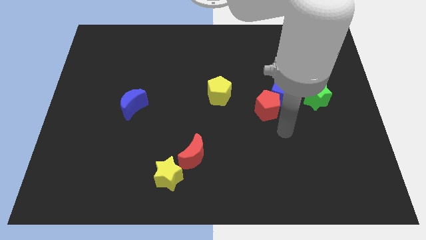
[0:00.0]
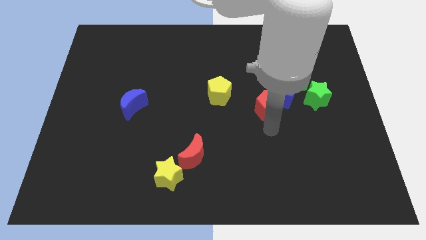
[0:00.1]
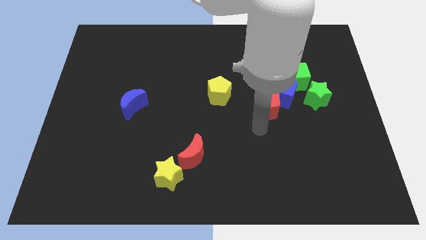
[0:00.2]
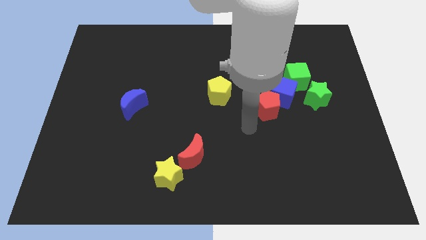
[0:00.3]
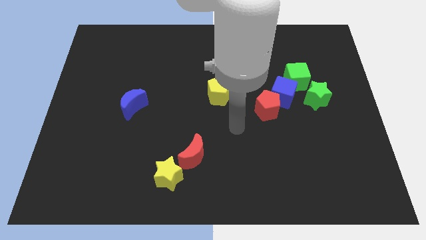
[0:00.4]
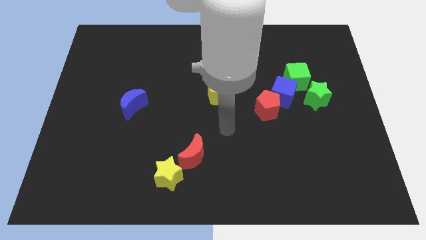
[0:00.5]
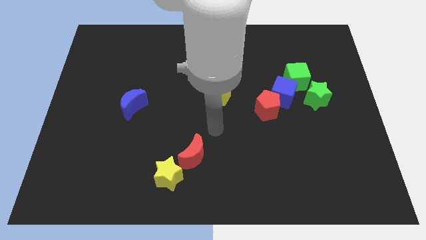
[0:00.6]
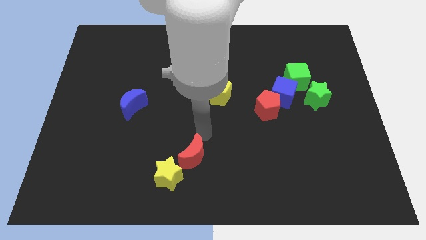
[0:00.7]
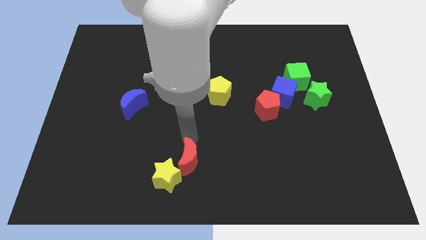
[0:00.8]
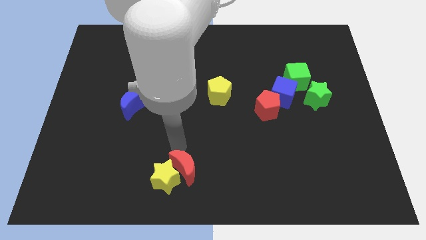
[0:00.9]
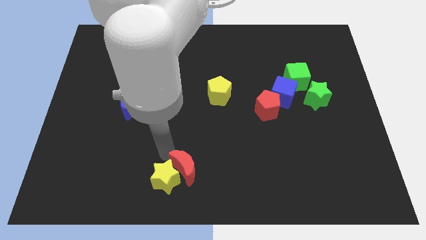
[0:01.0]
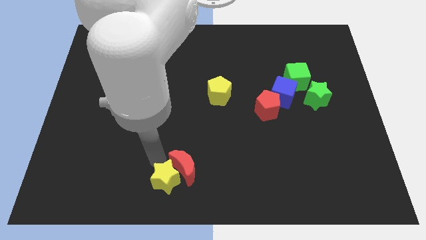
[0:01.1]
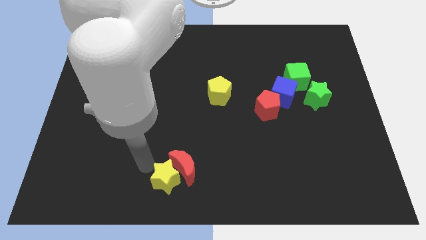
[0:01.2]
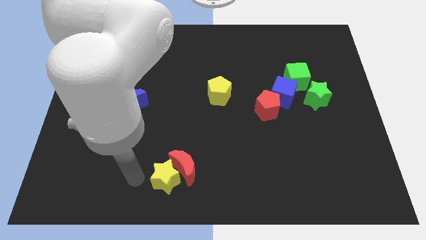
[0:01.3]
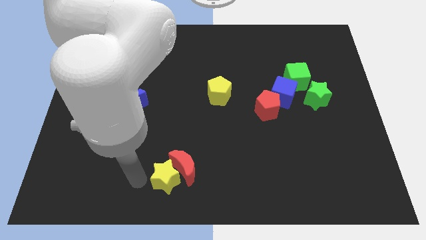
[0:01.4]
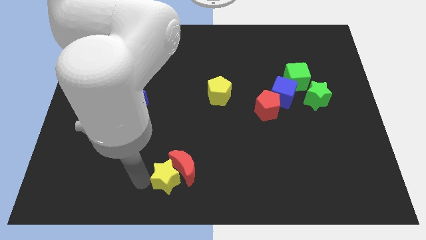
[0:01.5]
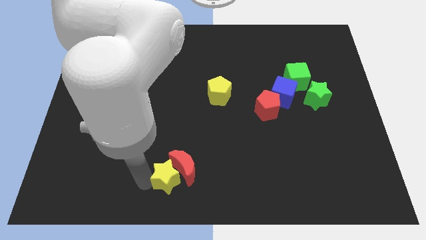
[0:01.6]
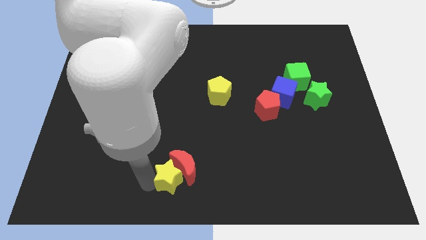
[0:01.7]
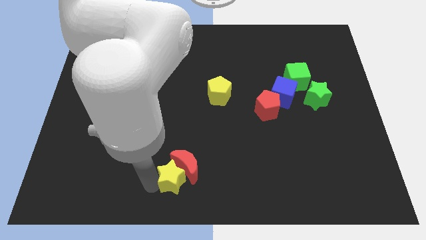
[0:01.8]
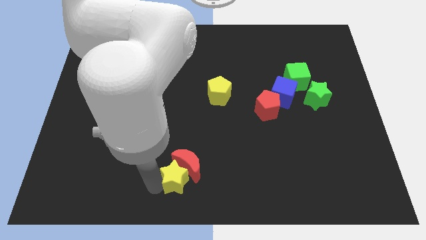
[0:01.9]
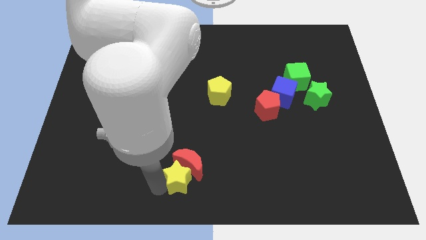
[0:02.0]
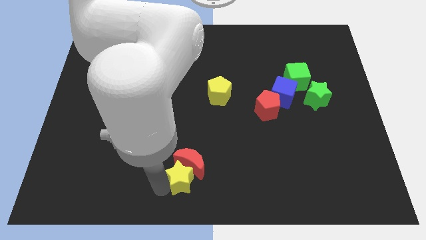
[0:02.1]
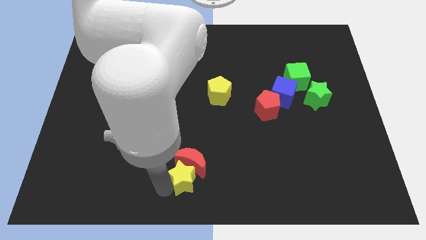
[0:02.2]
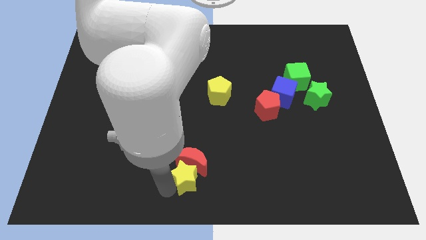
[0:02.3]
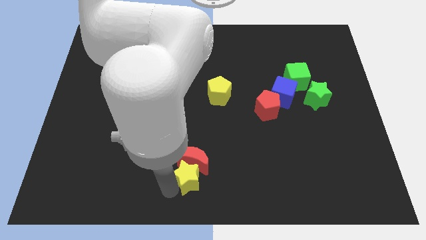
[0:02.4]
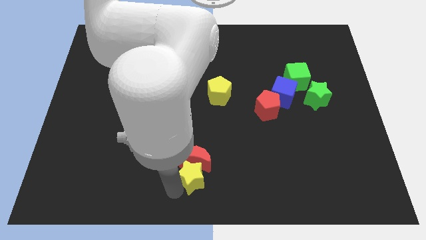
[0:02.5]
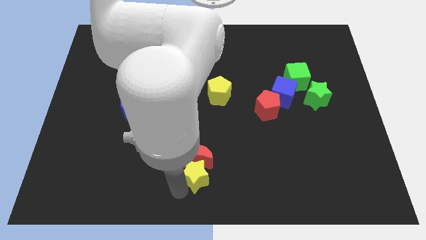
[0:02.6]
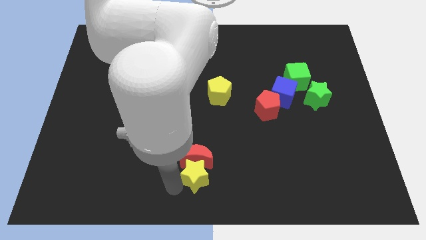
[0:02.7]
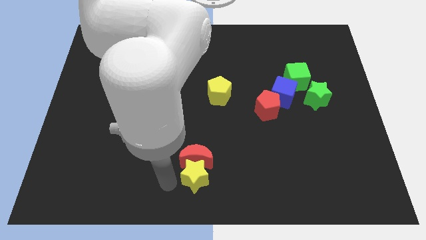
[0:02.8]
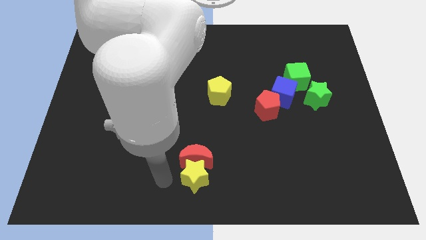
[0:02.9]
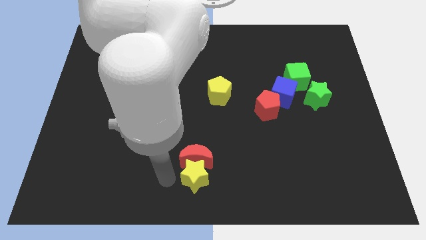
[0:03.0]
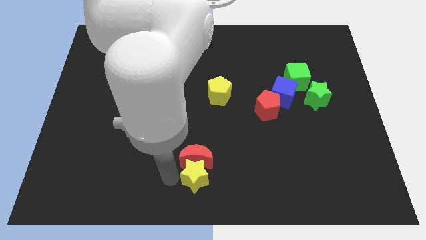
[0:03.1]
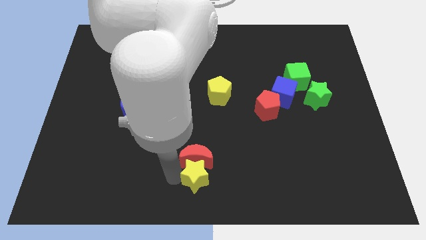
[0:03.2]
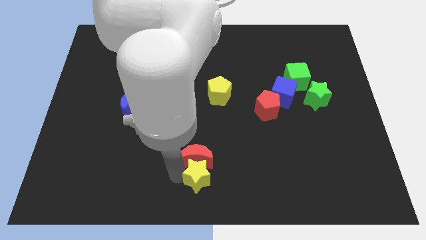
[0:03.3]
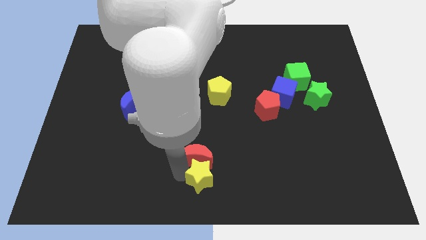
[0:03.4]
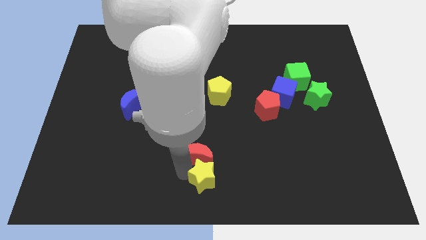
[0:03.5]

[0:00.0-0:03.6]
push the yellow star to the right slightly

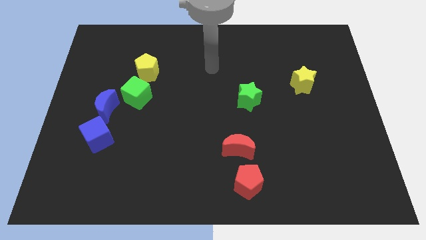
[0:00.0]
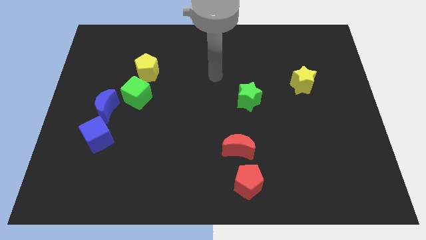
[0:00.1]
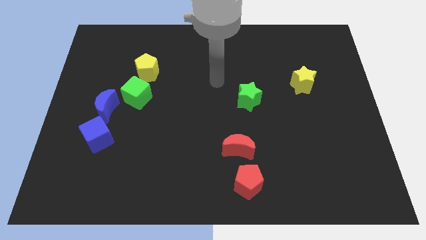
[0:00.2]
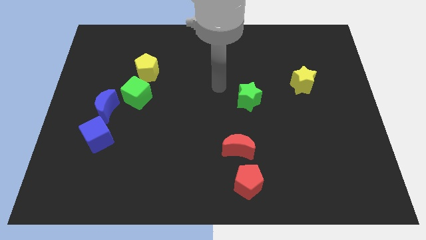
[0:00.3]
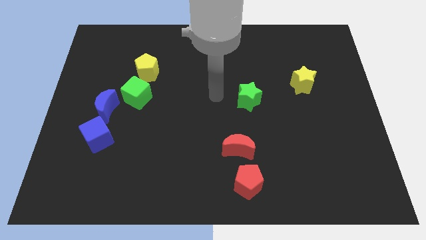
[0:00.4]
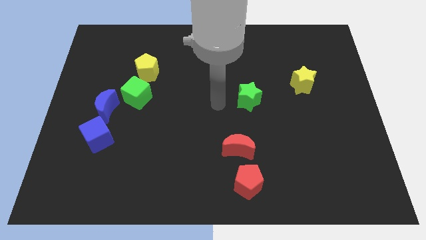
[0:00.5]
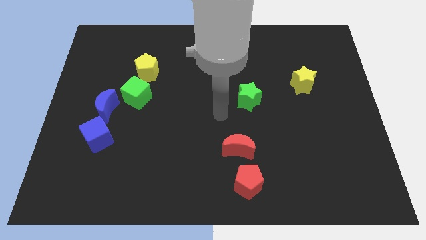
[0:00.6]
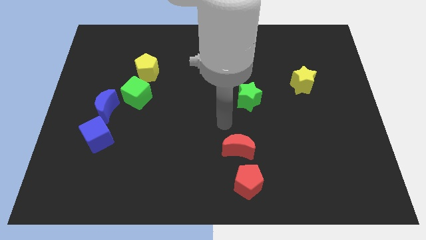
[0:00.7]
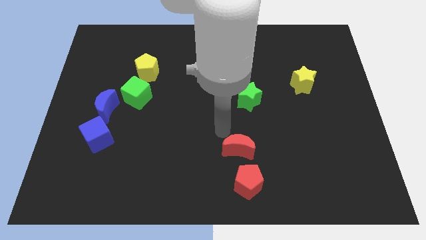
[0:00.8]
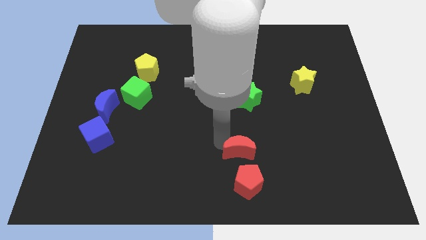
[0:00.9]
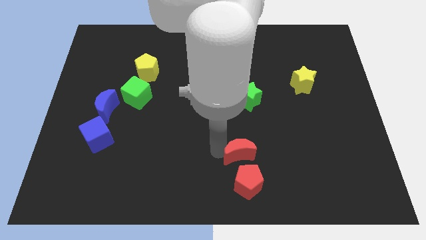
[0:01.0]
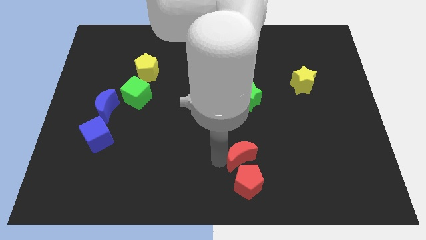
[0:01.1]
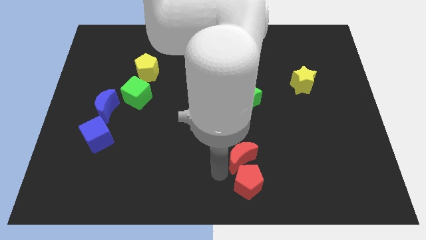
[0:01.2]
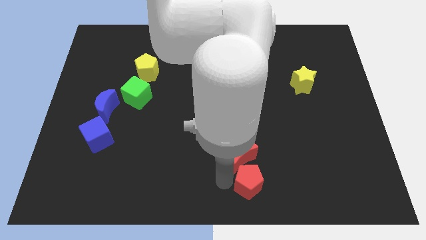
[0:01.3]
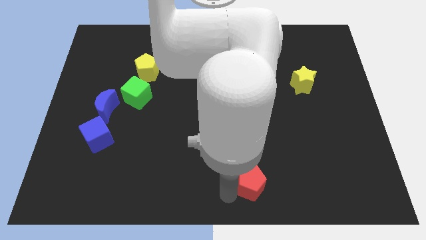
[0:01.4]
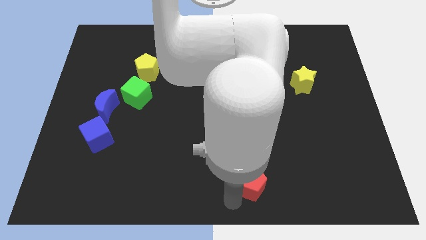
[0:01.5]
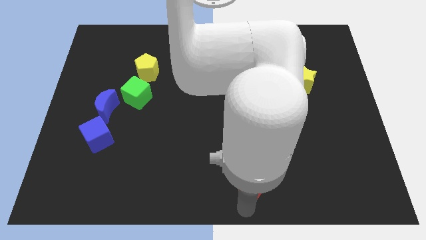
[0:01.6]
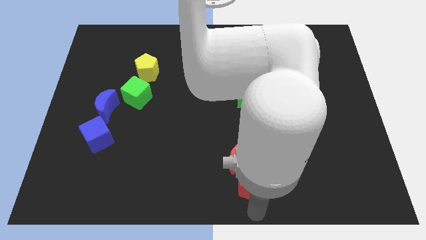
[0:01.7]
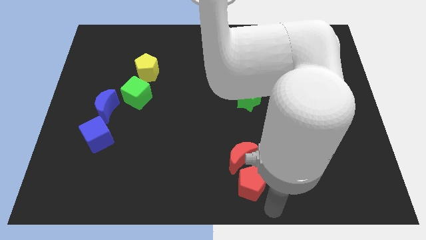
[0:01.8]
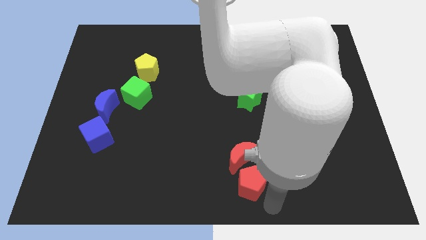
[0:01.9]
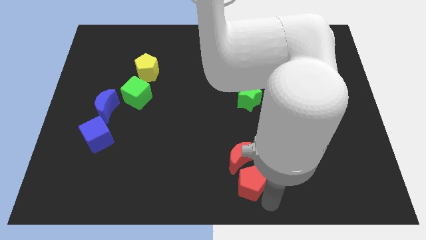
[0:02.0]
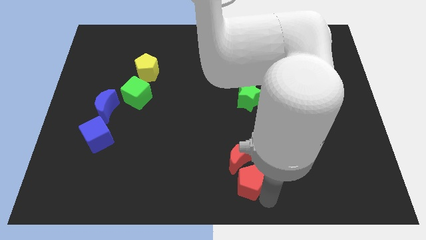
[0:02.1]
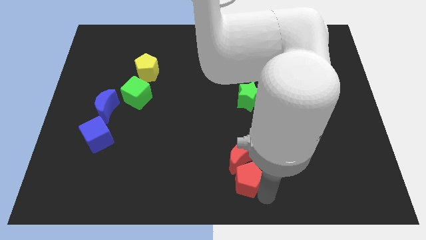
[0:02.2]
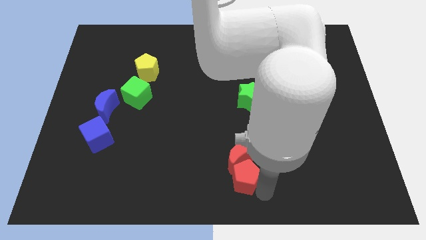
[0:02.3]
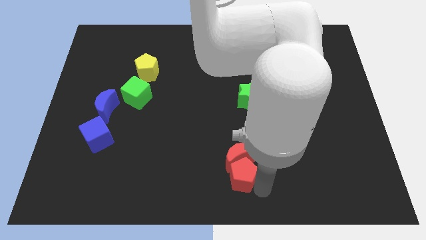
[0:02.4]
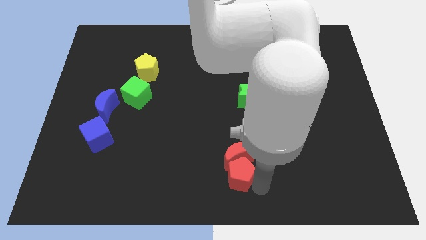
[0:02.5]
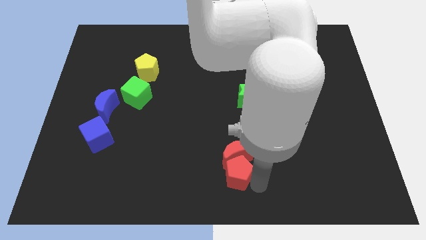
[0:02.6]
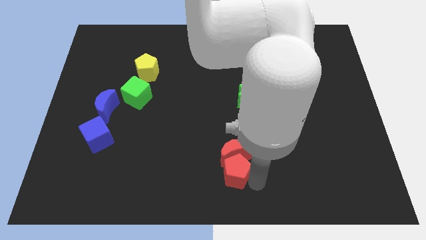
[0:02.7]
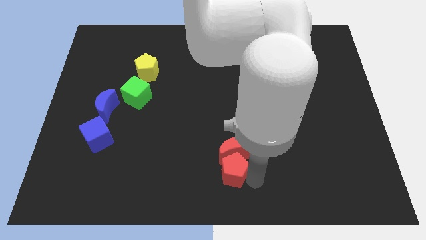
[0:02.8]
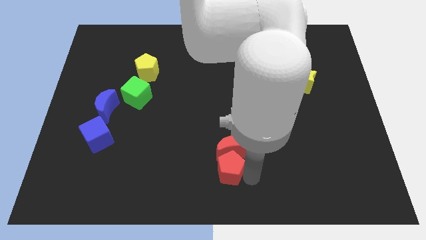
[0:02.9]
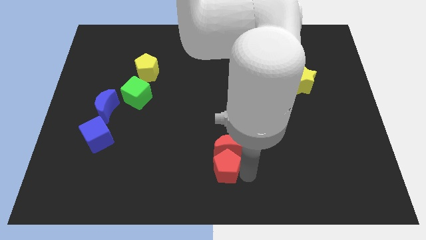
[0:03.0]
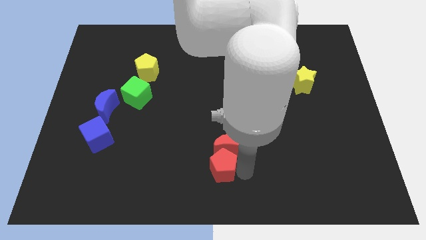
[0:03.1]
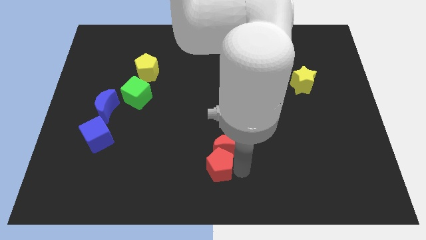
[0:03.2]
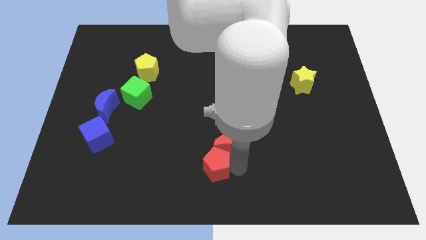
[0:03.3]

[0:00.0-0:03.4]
move the red pentagon diagonally upwards and left somewhat

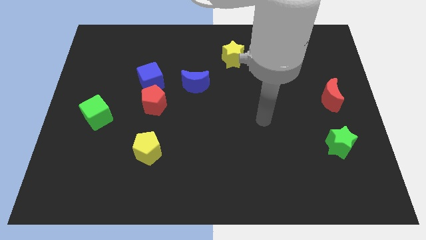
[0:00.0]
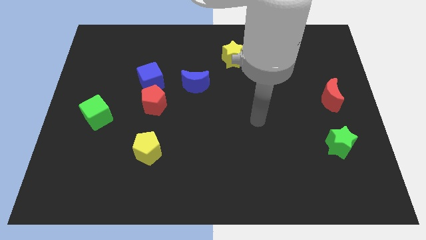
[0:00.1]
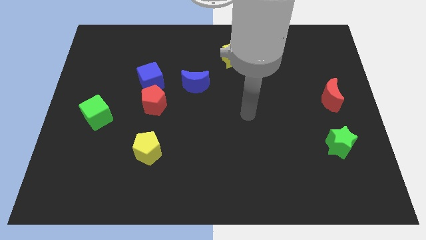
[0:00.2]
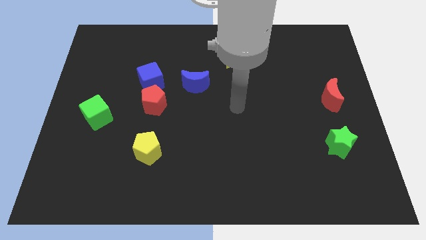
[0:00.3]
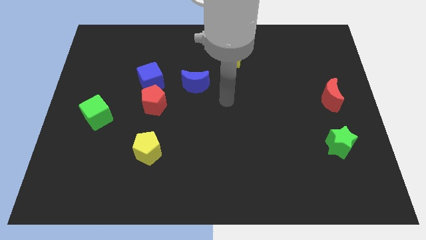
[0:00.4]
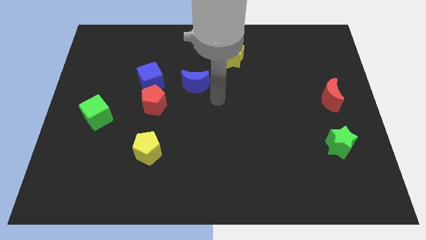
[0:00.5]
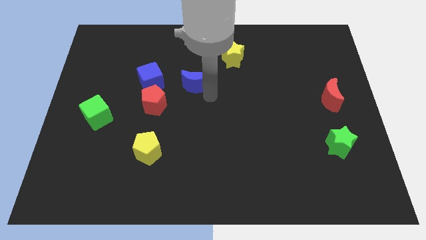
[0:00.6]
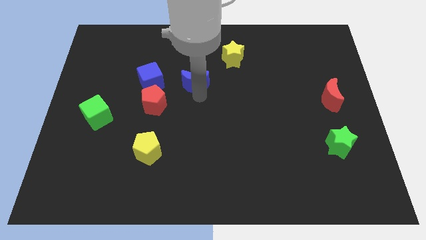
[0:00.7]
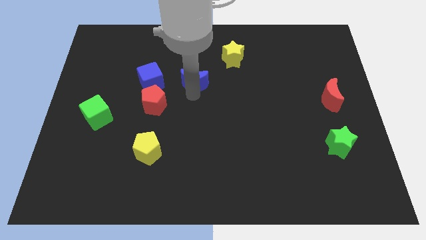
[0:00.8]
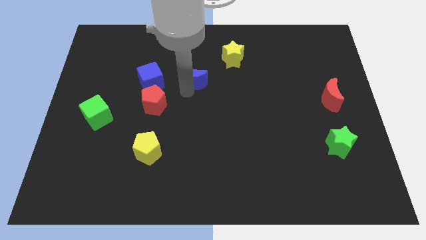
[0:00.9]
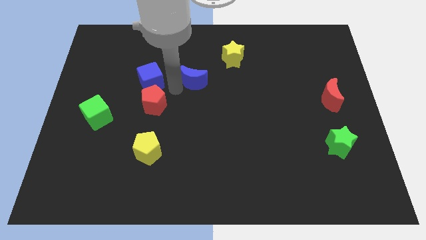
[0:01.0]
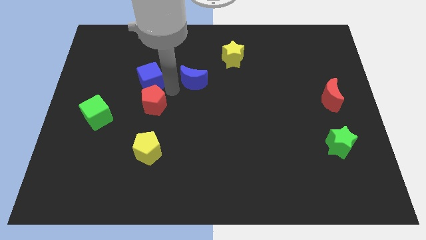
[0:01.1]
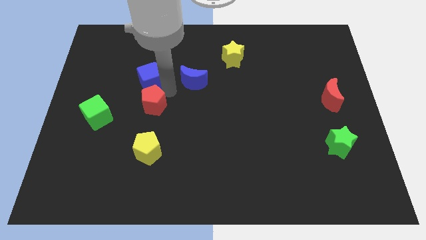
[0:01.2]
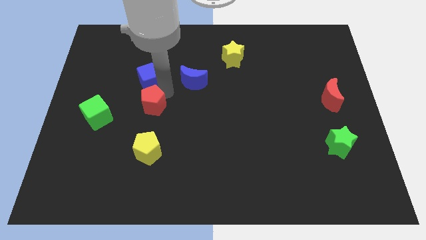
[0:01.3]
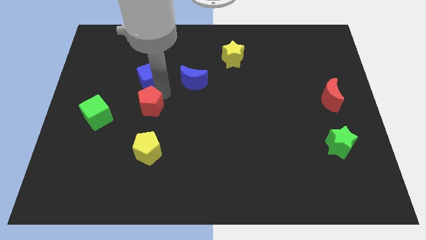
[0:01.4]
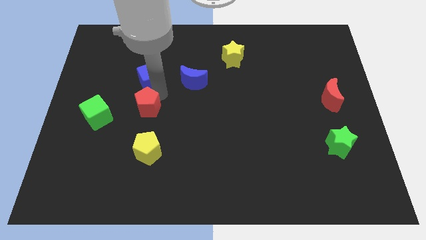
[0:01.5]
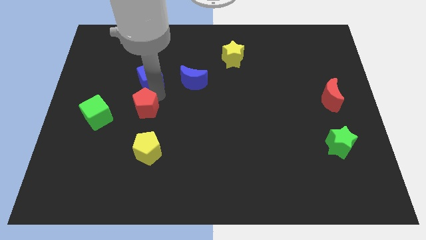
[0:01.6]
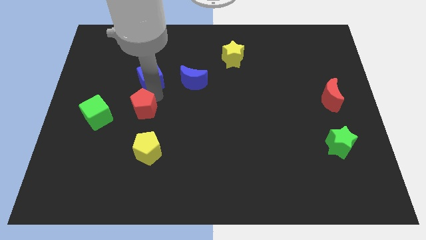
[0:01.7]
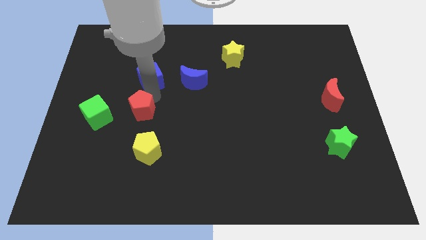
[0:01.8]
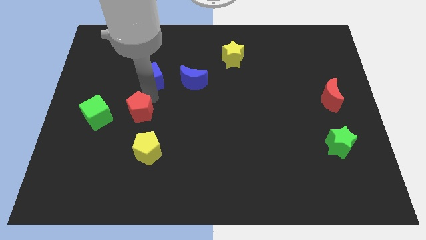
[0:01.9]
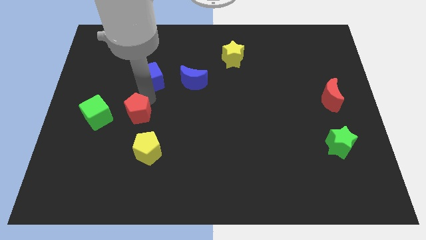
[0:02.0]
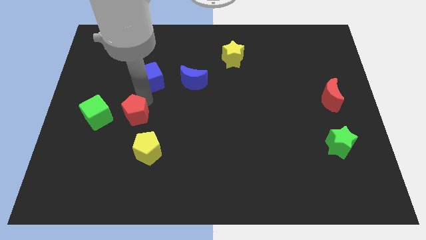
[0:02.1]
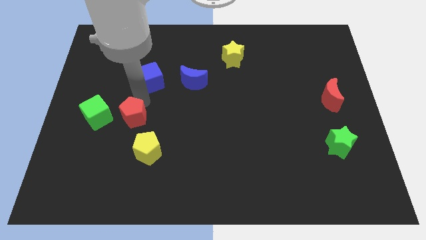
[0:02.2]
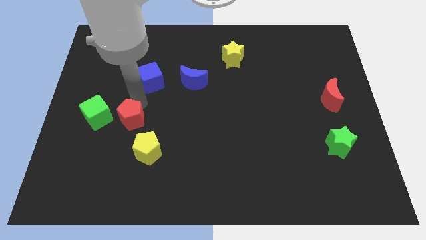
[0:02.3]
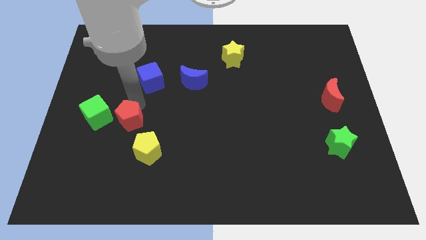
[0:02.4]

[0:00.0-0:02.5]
push the red pentagon down and to the left diagonally a bit
